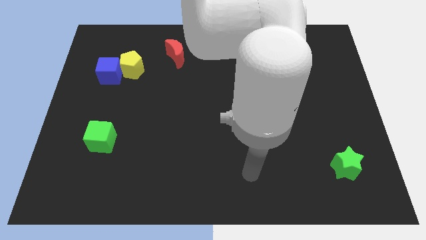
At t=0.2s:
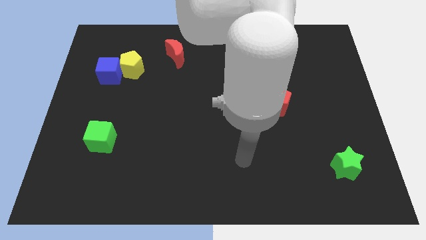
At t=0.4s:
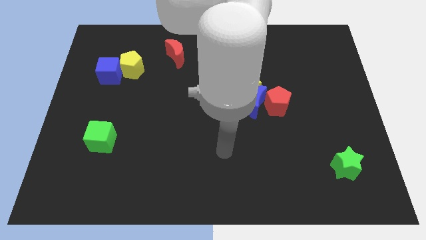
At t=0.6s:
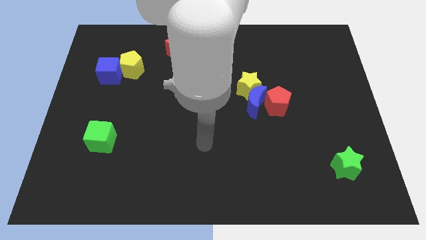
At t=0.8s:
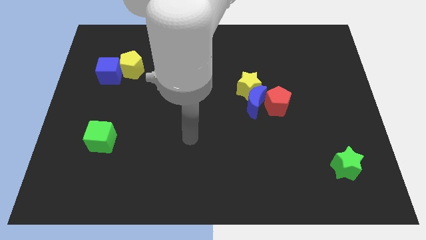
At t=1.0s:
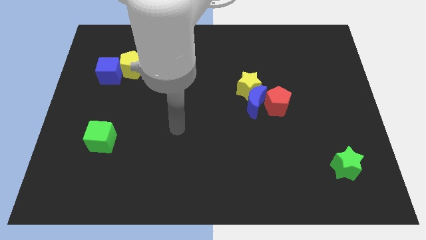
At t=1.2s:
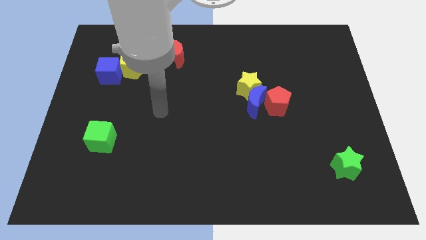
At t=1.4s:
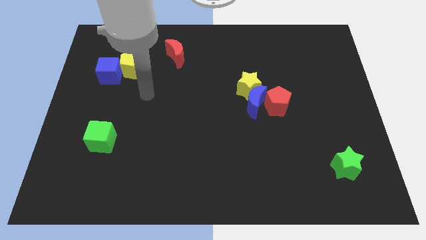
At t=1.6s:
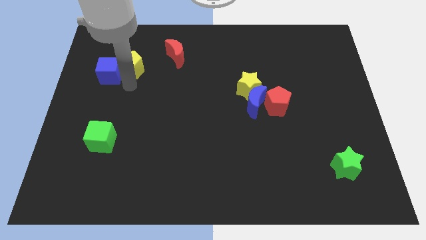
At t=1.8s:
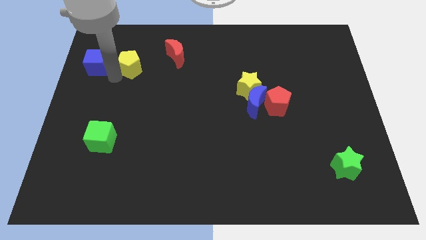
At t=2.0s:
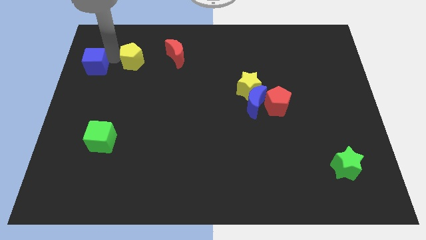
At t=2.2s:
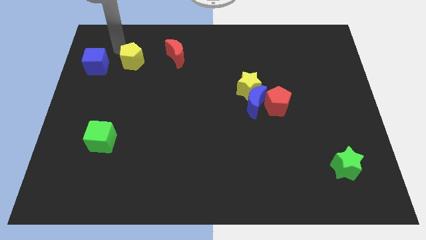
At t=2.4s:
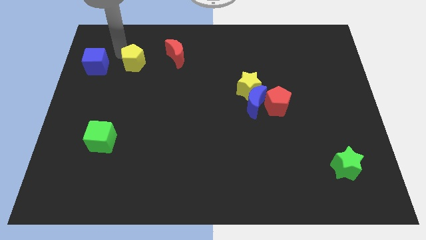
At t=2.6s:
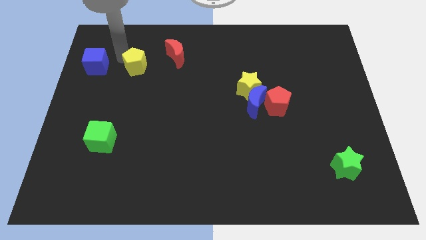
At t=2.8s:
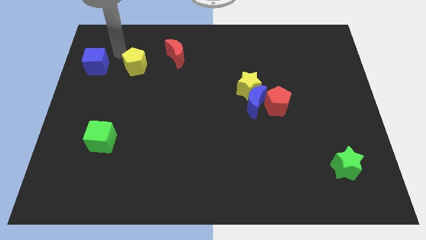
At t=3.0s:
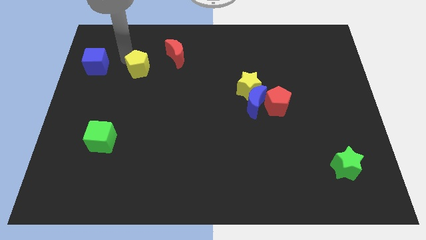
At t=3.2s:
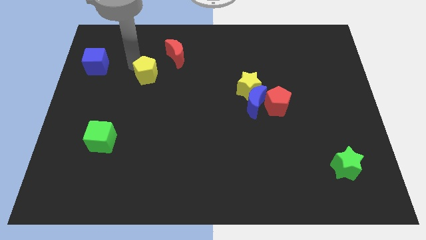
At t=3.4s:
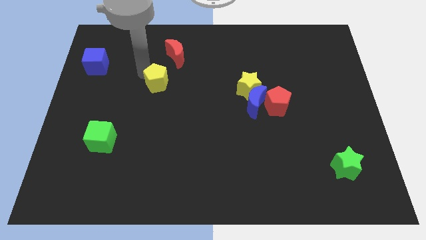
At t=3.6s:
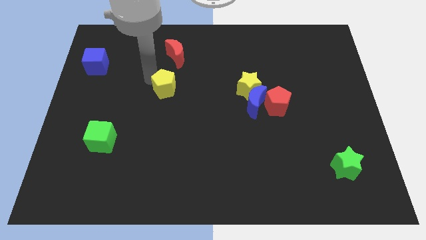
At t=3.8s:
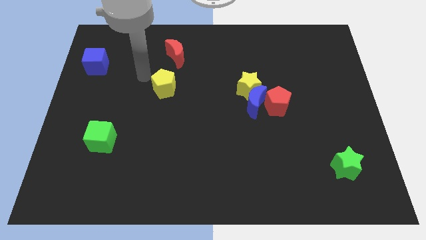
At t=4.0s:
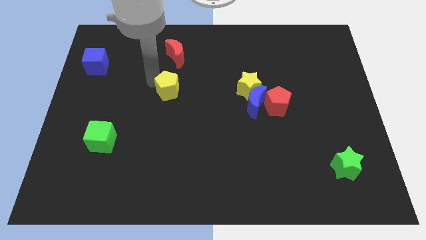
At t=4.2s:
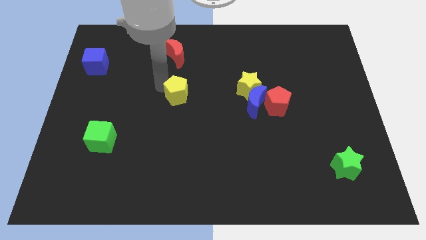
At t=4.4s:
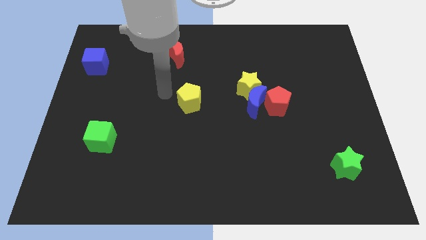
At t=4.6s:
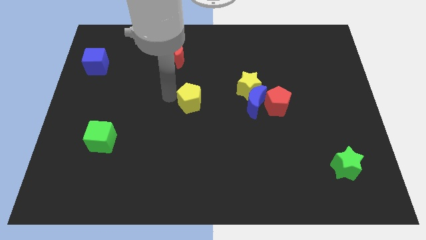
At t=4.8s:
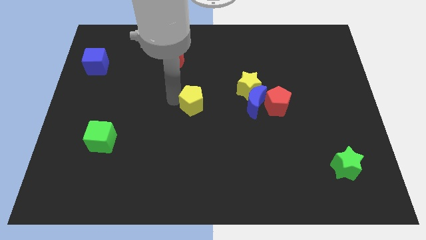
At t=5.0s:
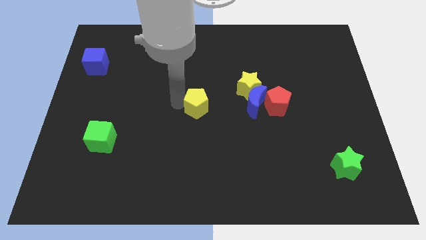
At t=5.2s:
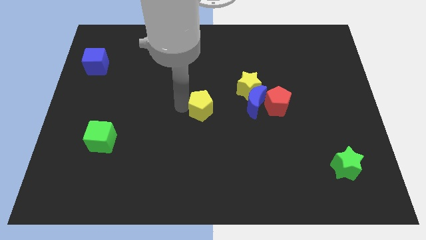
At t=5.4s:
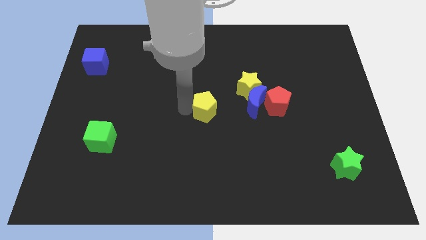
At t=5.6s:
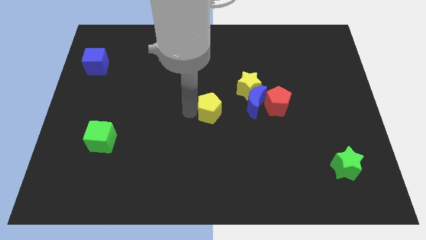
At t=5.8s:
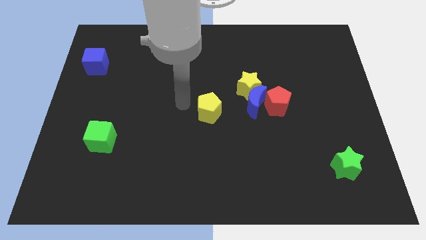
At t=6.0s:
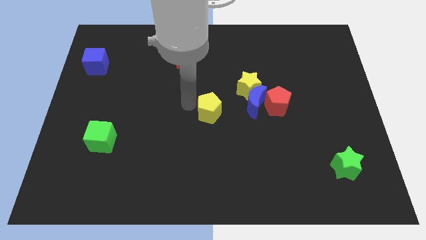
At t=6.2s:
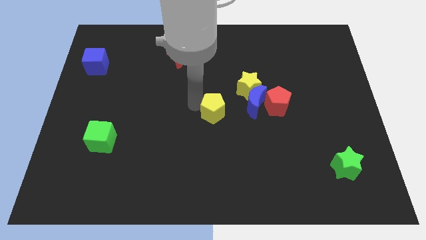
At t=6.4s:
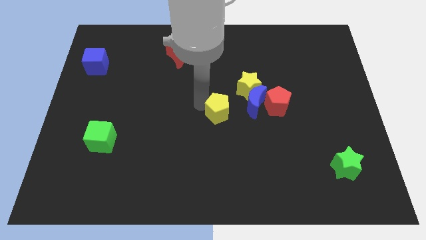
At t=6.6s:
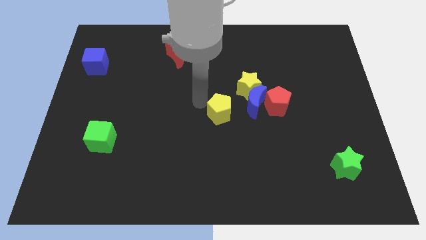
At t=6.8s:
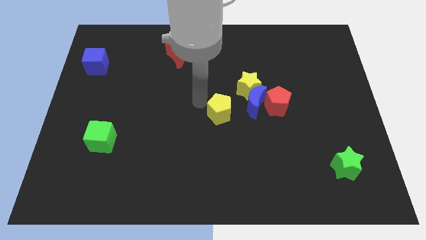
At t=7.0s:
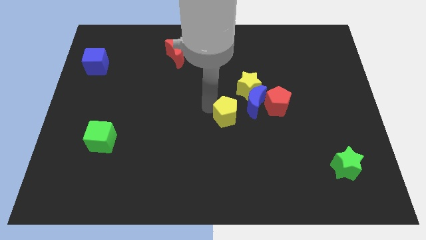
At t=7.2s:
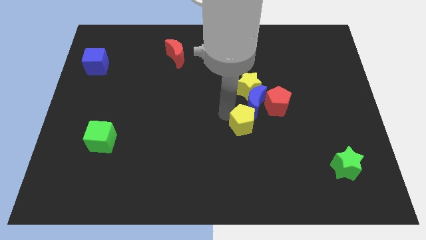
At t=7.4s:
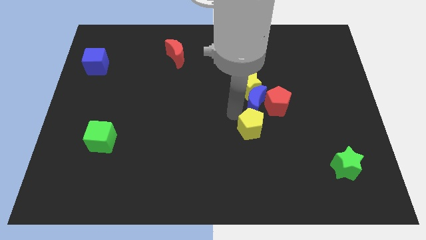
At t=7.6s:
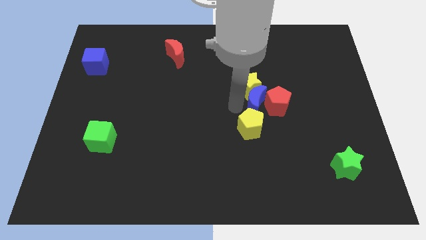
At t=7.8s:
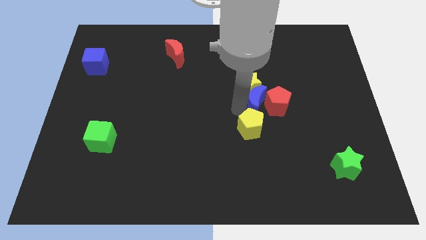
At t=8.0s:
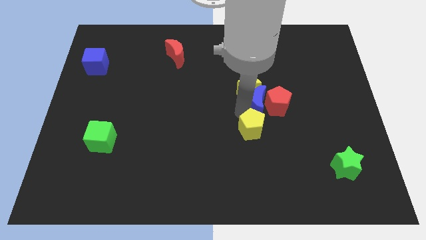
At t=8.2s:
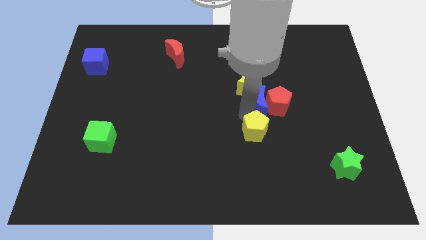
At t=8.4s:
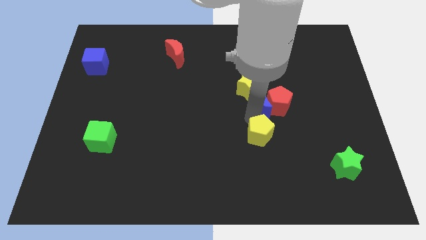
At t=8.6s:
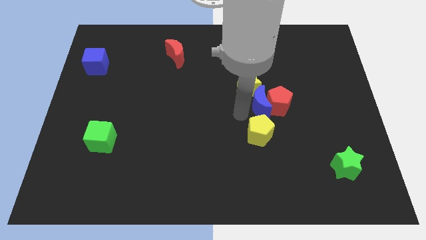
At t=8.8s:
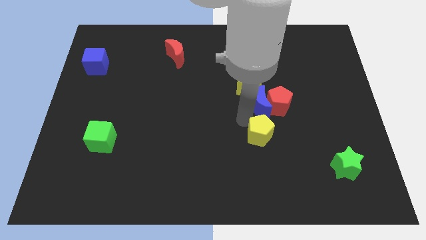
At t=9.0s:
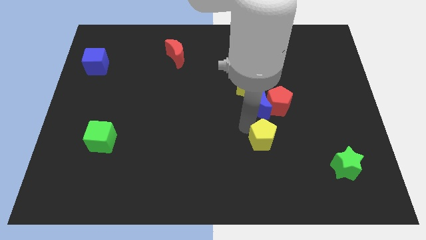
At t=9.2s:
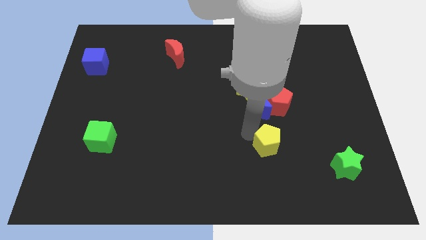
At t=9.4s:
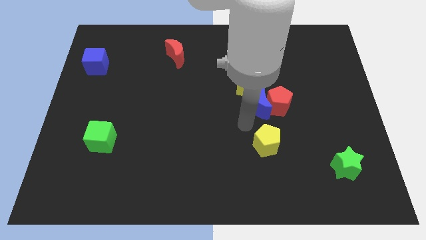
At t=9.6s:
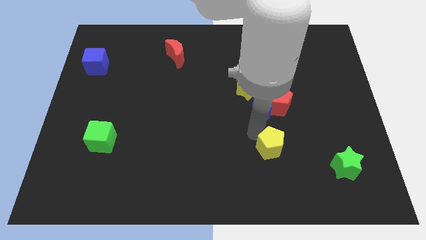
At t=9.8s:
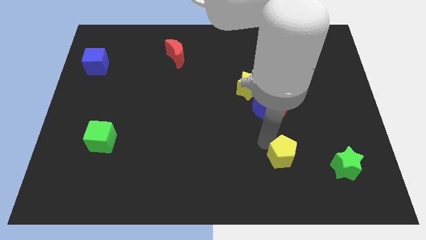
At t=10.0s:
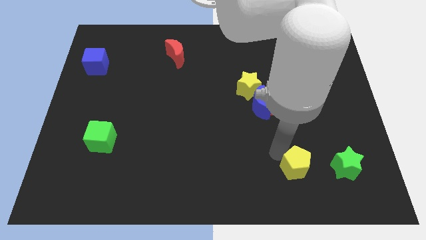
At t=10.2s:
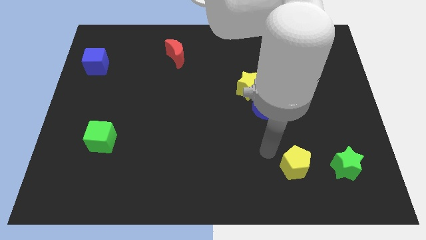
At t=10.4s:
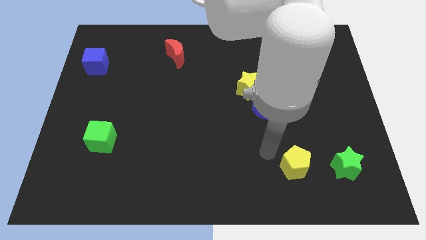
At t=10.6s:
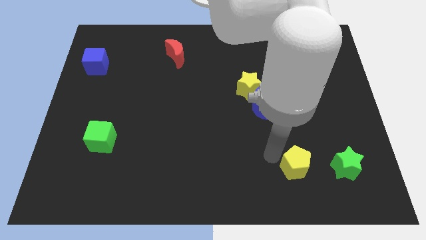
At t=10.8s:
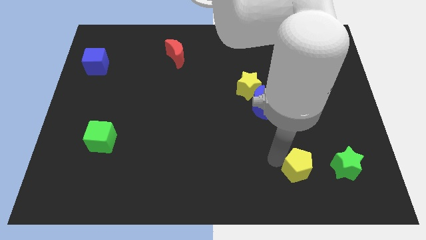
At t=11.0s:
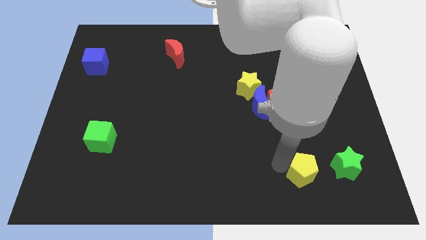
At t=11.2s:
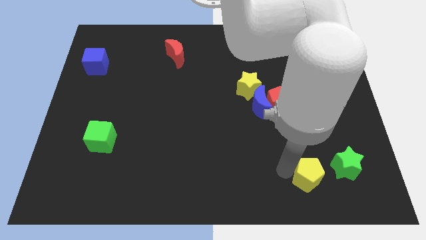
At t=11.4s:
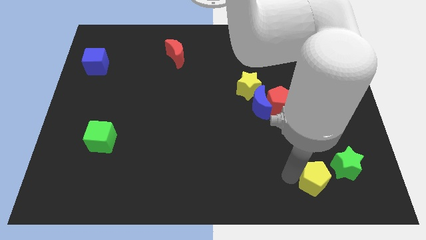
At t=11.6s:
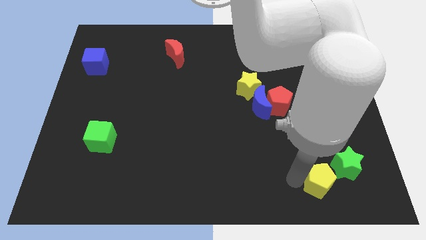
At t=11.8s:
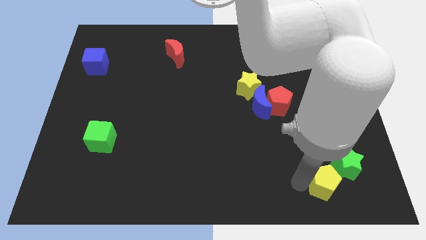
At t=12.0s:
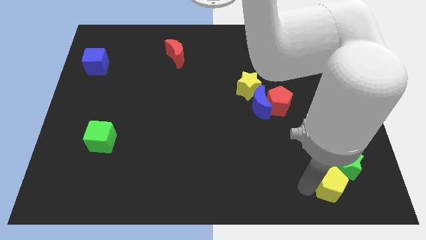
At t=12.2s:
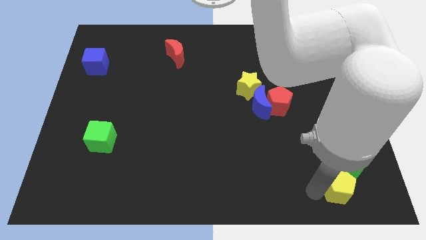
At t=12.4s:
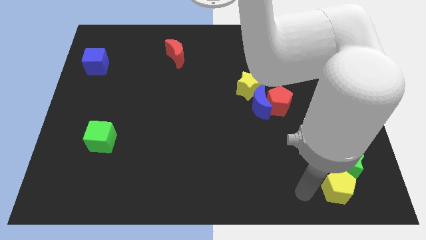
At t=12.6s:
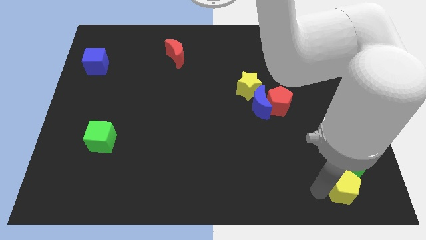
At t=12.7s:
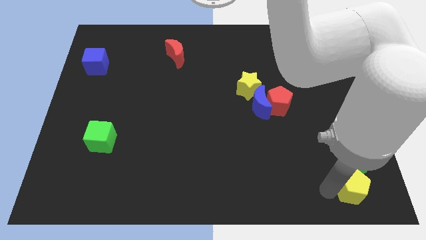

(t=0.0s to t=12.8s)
put the yellow pentagon to the bottom right

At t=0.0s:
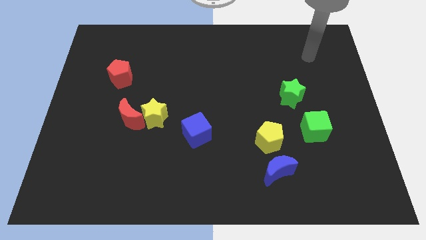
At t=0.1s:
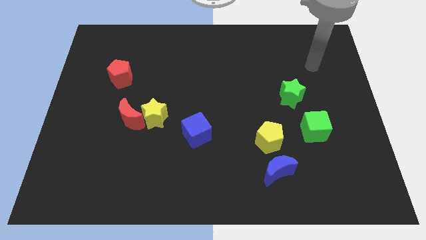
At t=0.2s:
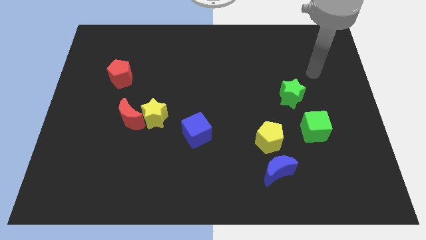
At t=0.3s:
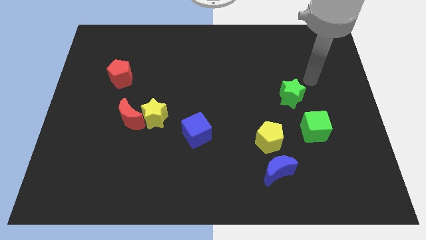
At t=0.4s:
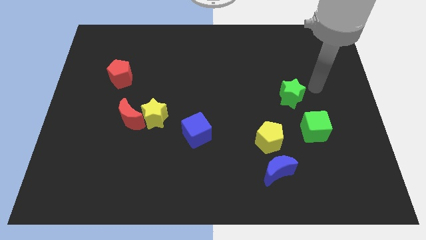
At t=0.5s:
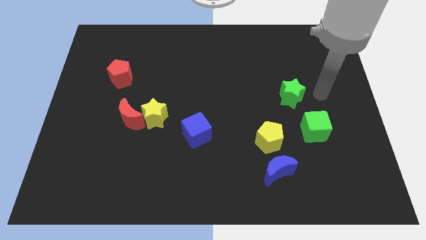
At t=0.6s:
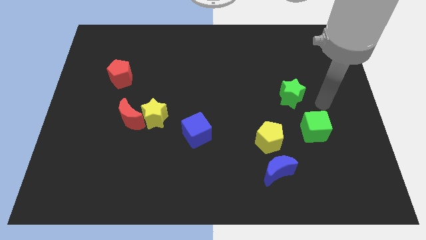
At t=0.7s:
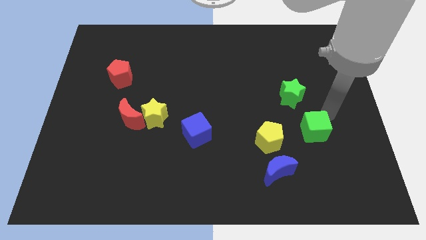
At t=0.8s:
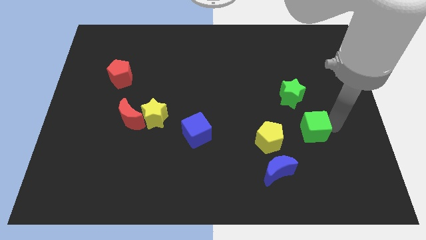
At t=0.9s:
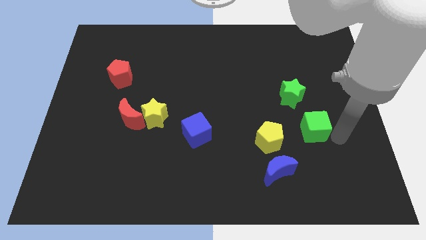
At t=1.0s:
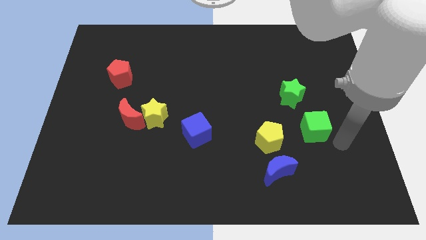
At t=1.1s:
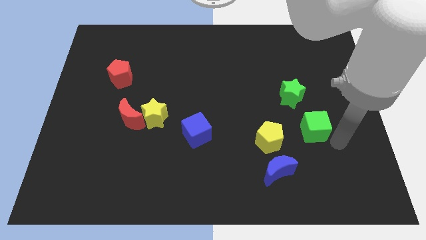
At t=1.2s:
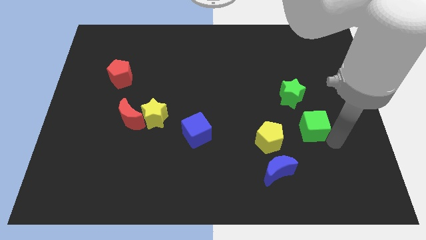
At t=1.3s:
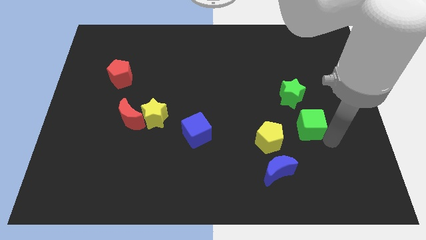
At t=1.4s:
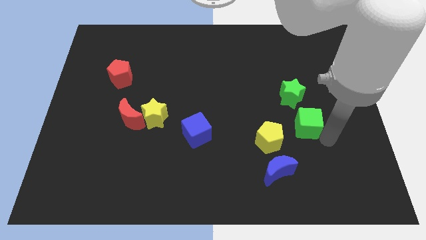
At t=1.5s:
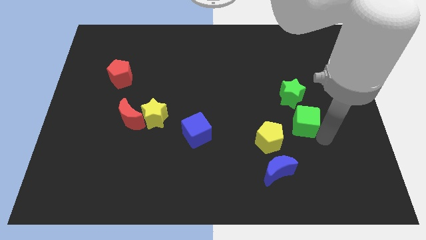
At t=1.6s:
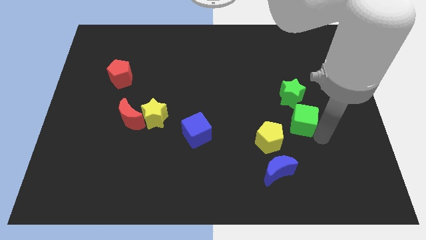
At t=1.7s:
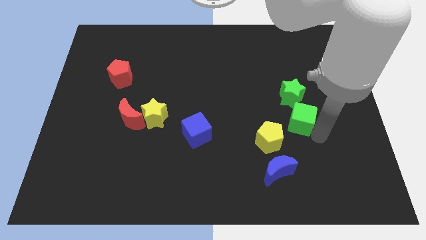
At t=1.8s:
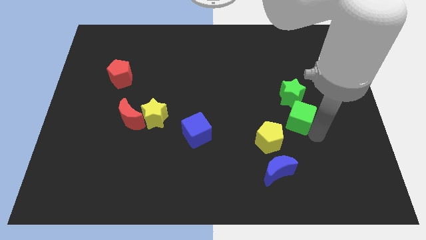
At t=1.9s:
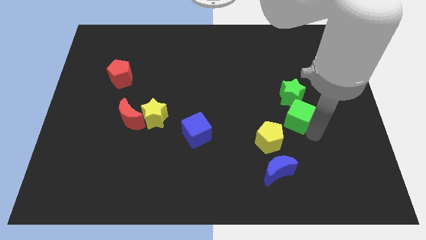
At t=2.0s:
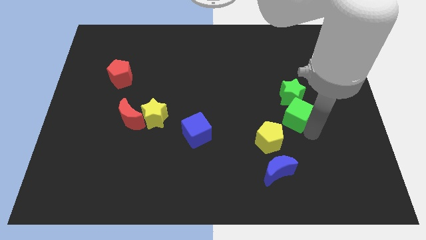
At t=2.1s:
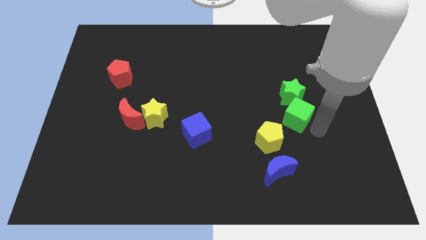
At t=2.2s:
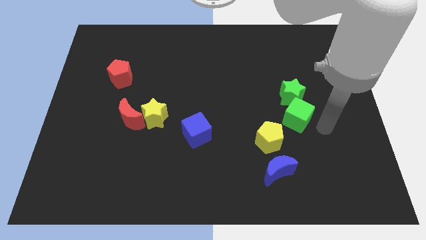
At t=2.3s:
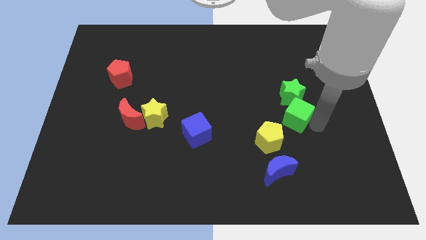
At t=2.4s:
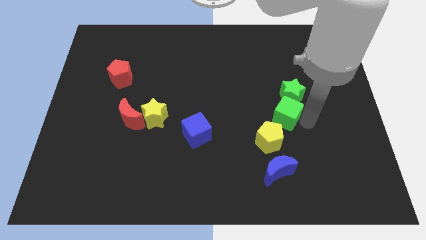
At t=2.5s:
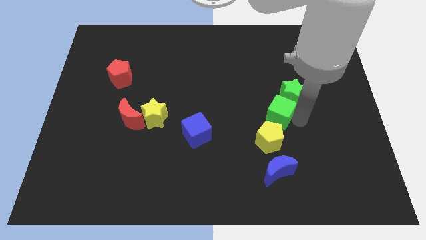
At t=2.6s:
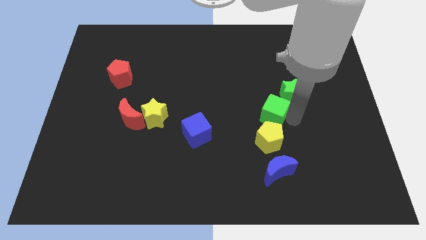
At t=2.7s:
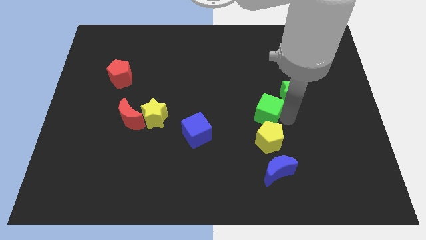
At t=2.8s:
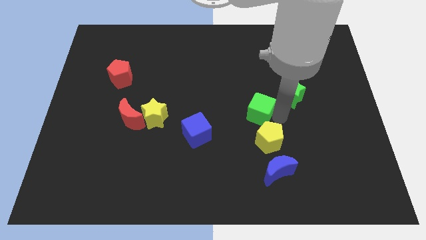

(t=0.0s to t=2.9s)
slide the green cube to the middle
